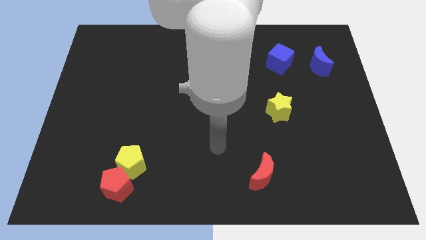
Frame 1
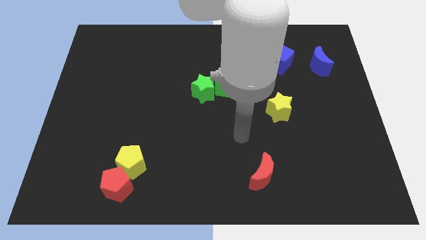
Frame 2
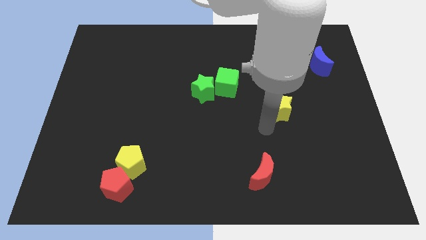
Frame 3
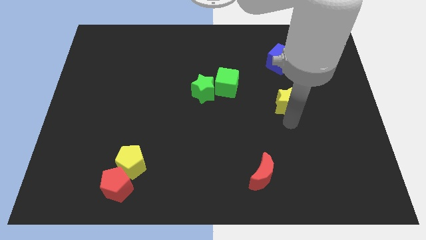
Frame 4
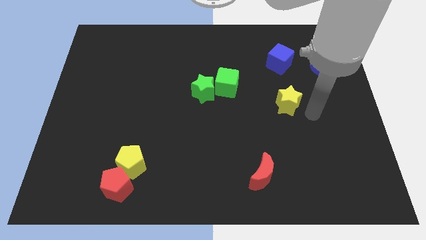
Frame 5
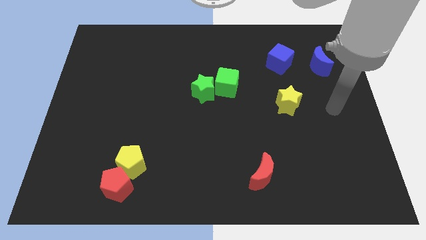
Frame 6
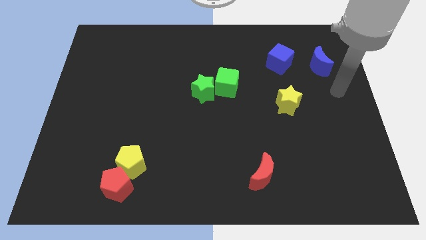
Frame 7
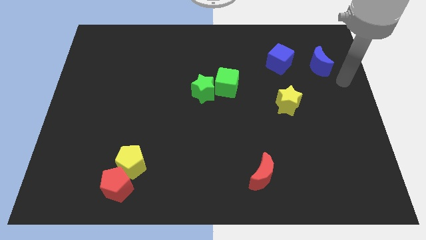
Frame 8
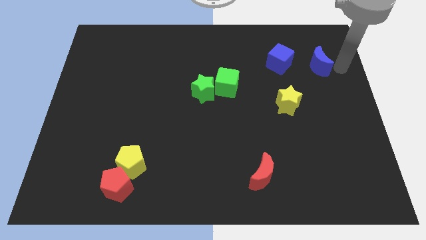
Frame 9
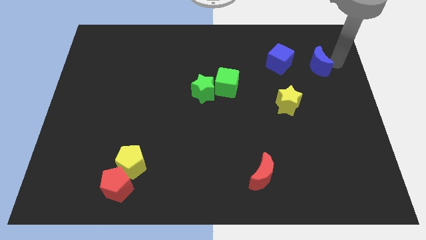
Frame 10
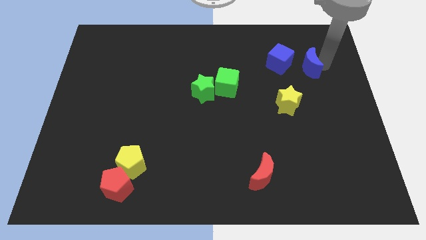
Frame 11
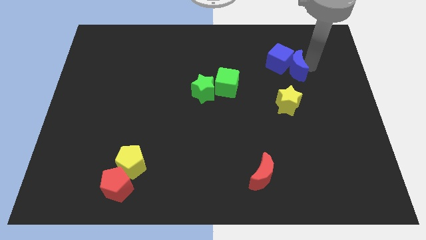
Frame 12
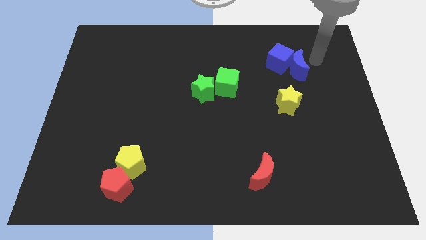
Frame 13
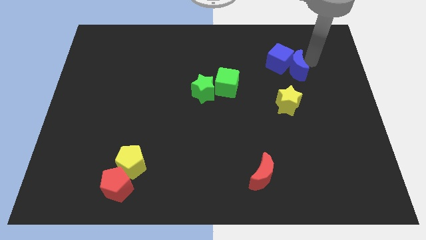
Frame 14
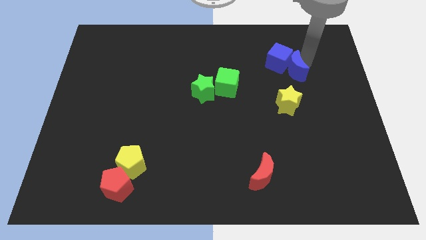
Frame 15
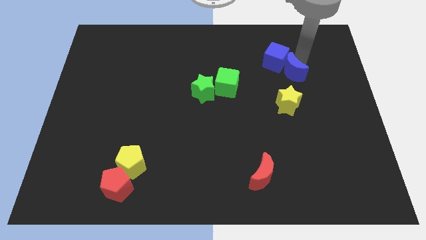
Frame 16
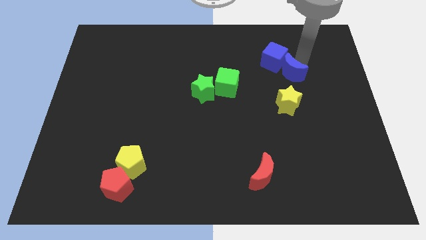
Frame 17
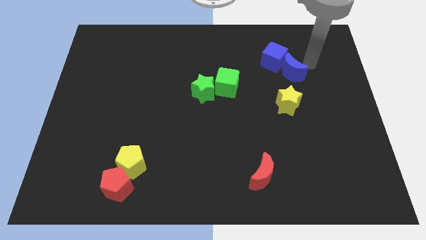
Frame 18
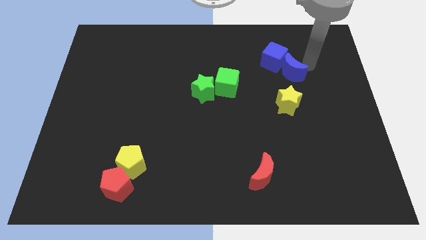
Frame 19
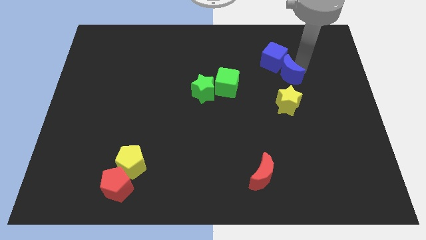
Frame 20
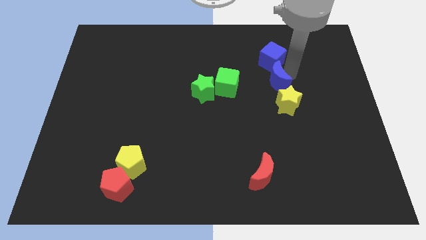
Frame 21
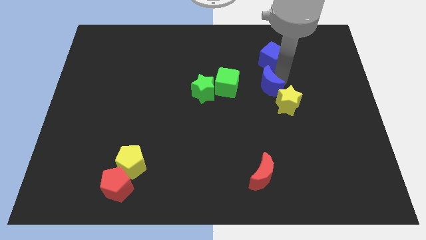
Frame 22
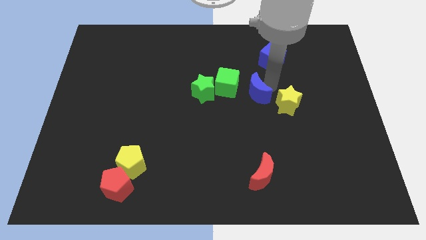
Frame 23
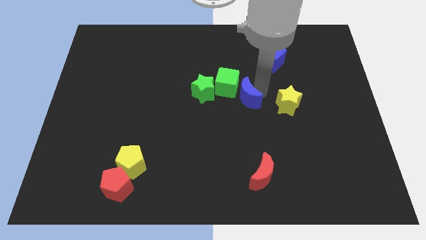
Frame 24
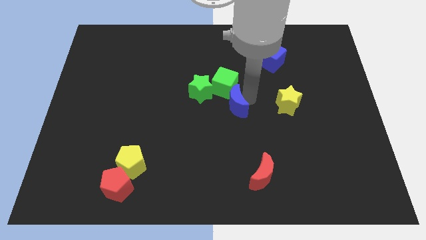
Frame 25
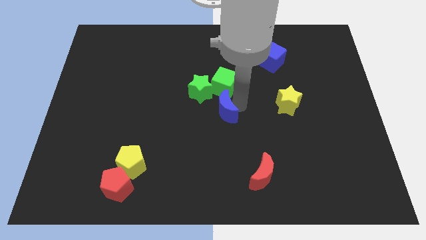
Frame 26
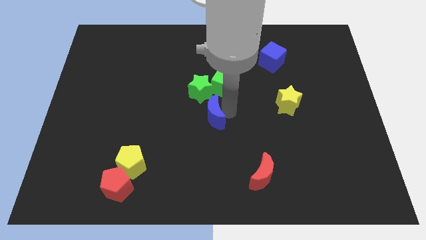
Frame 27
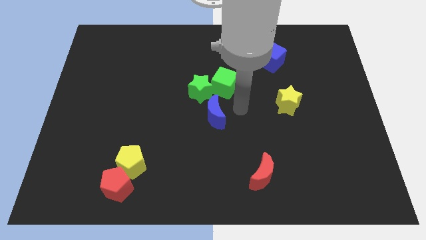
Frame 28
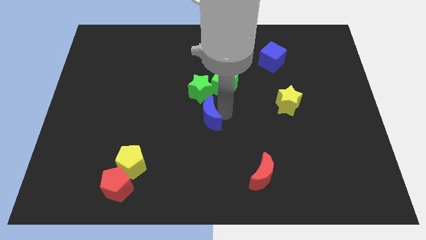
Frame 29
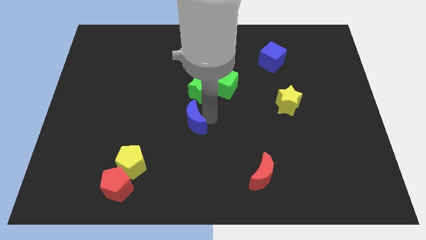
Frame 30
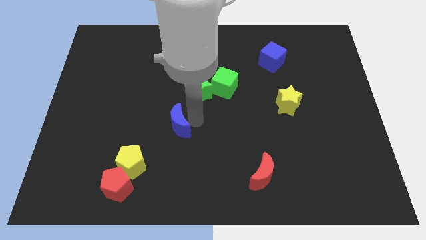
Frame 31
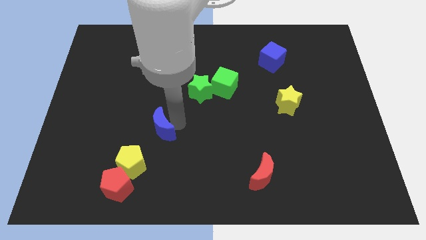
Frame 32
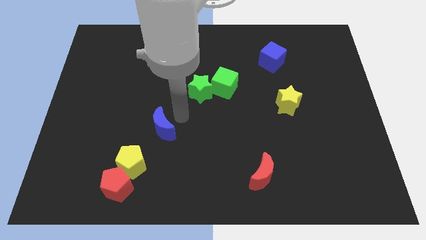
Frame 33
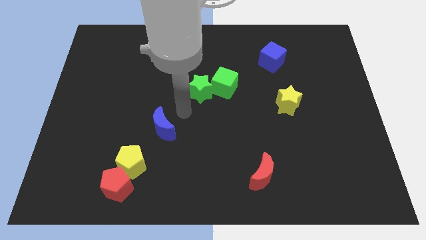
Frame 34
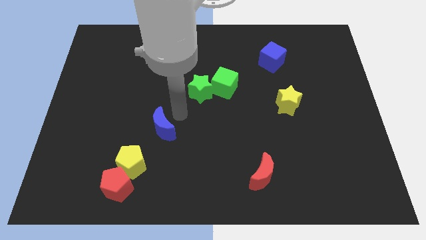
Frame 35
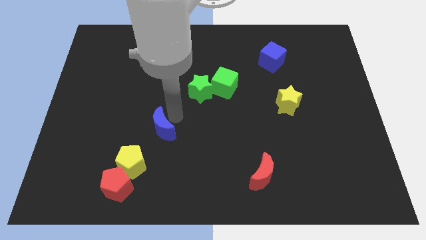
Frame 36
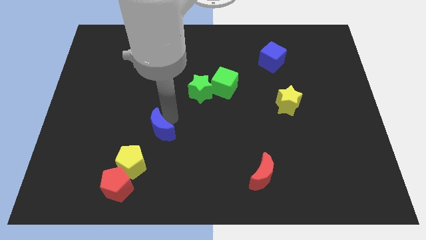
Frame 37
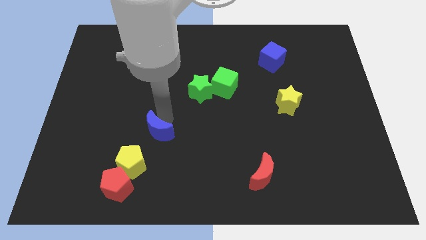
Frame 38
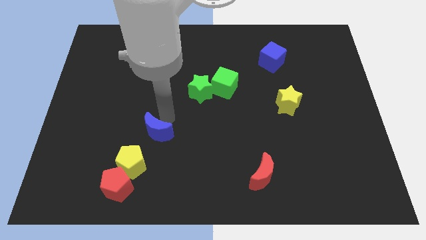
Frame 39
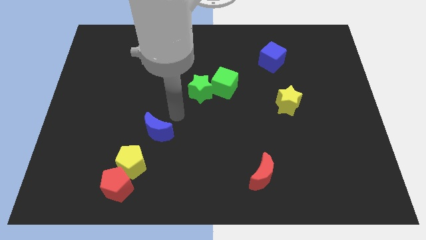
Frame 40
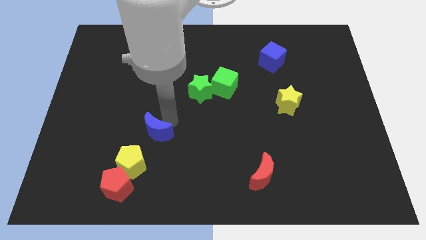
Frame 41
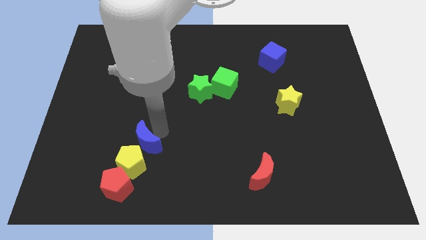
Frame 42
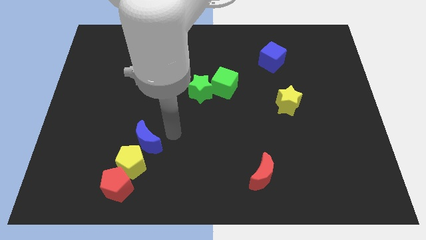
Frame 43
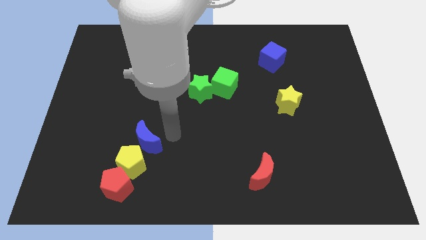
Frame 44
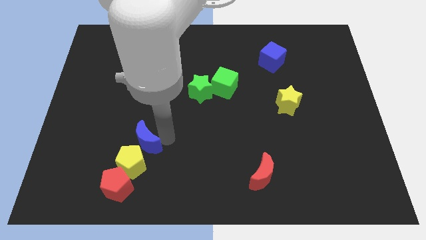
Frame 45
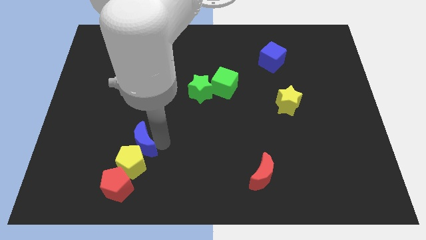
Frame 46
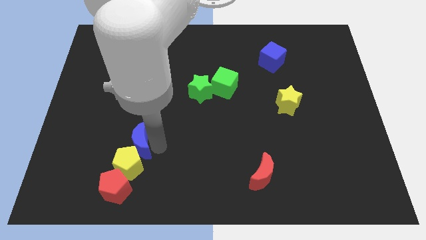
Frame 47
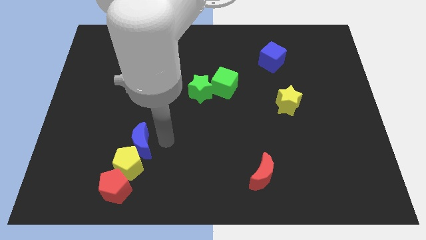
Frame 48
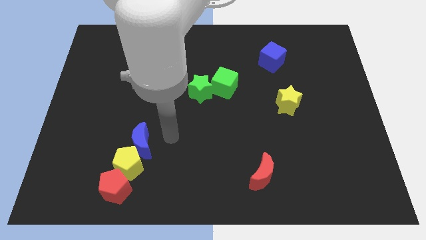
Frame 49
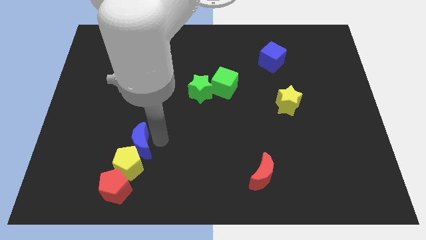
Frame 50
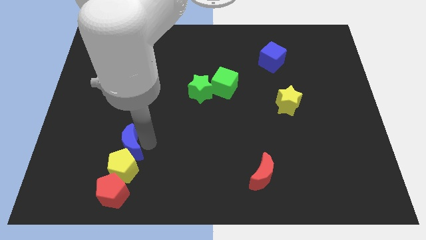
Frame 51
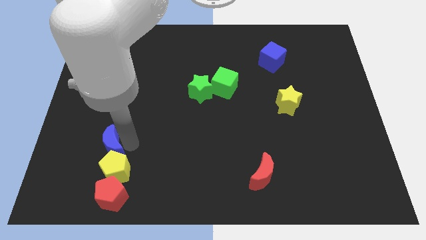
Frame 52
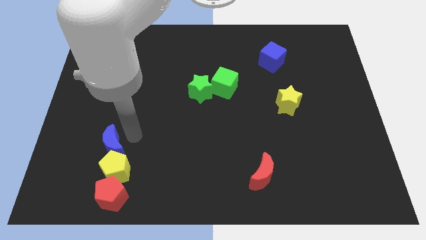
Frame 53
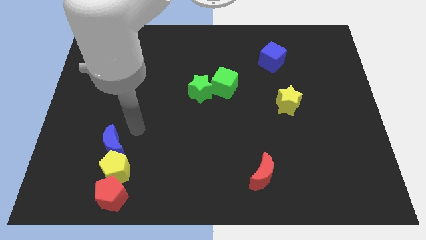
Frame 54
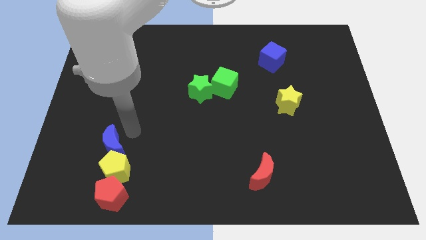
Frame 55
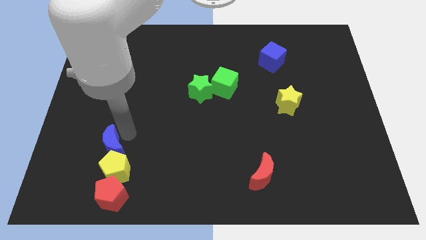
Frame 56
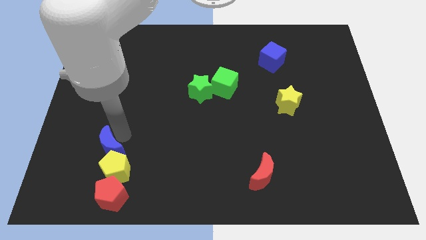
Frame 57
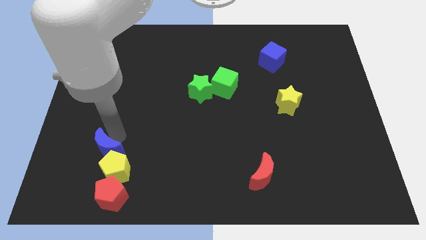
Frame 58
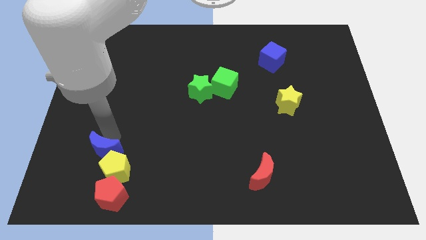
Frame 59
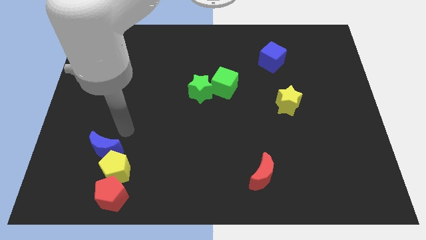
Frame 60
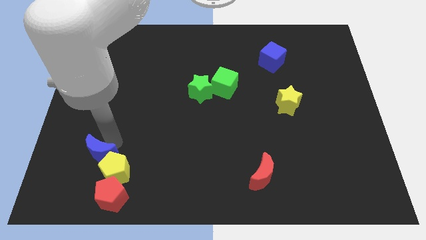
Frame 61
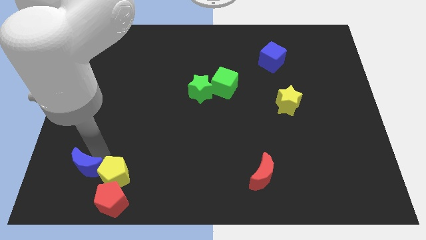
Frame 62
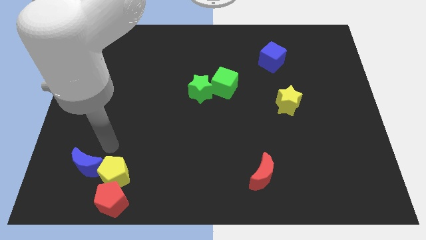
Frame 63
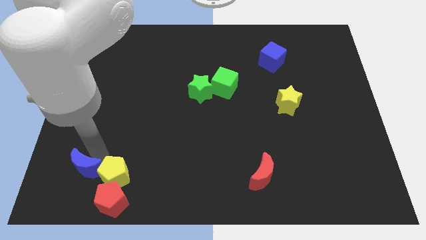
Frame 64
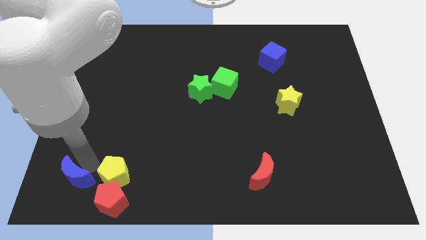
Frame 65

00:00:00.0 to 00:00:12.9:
move the blue moon to the bottom left
